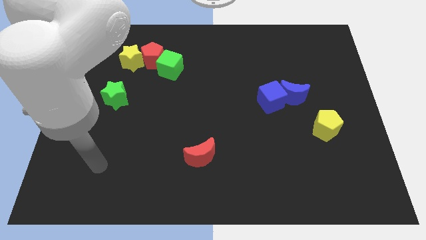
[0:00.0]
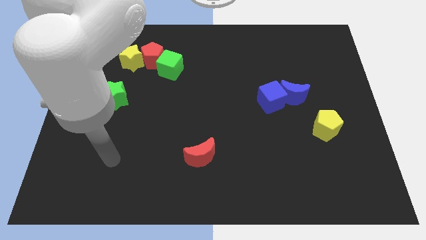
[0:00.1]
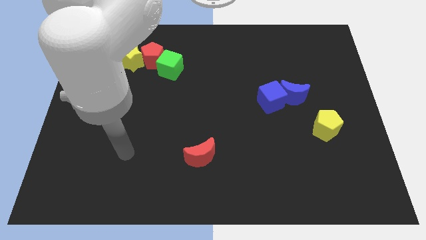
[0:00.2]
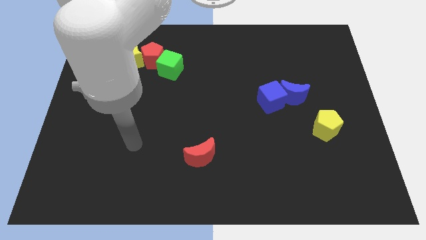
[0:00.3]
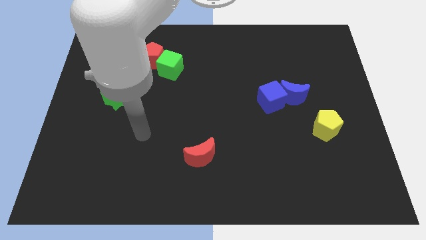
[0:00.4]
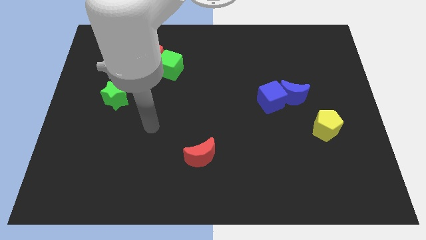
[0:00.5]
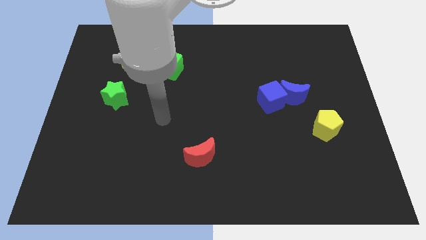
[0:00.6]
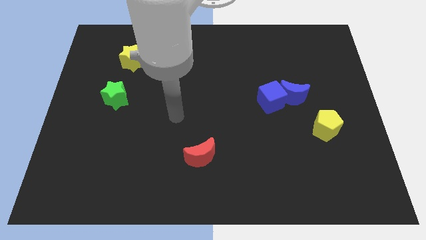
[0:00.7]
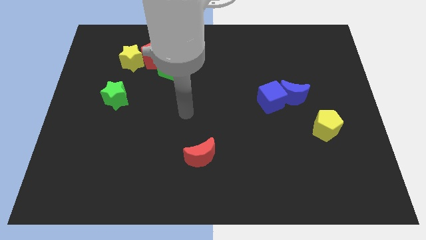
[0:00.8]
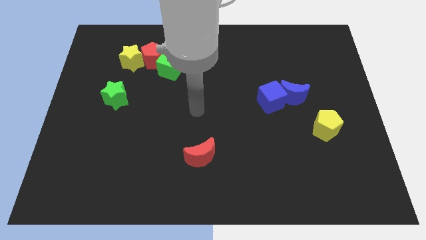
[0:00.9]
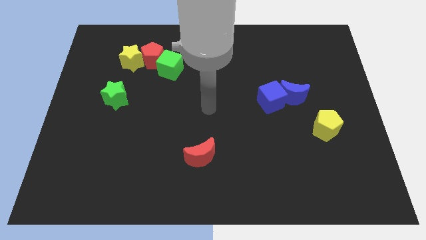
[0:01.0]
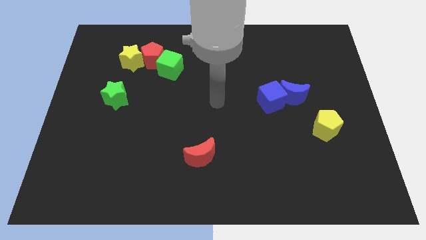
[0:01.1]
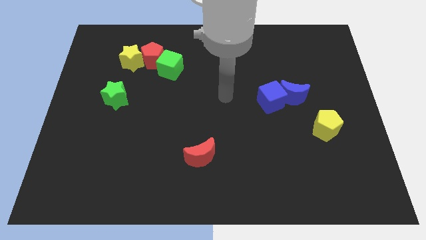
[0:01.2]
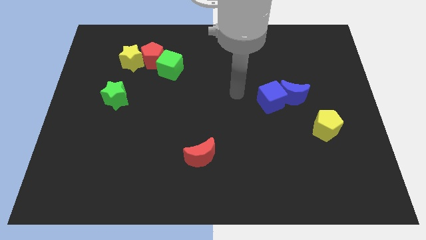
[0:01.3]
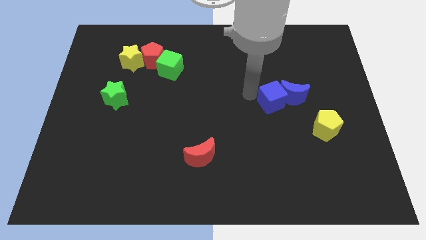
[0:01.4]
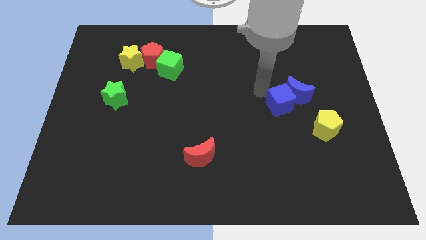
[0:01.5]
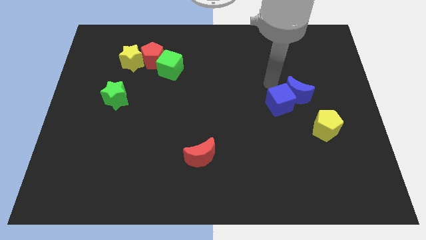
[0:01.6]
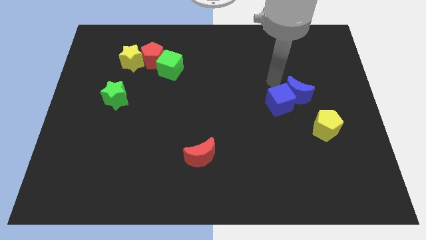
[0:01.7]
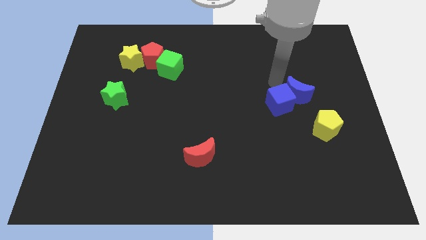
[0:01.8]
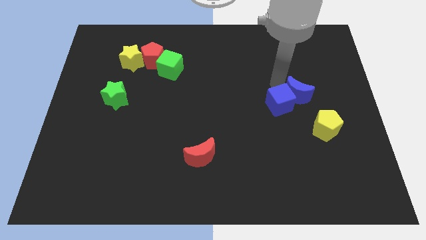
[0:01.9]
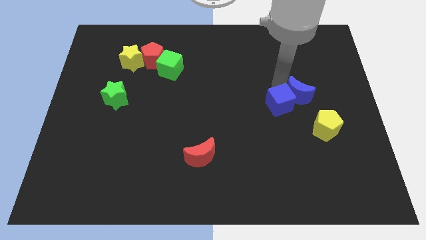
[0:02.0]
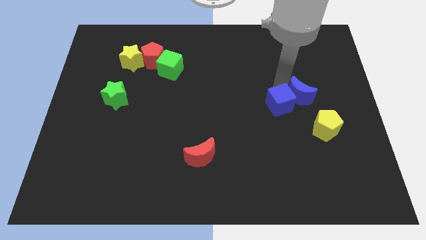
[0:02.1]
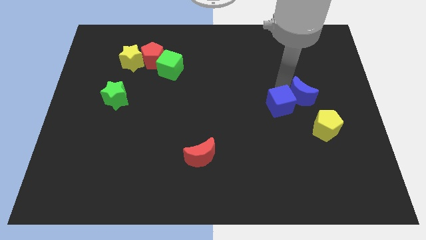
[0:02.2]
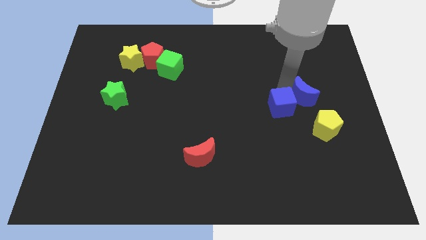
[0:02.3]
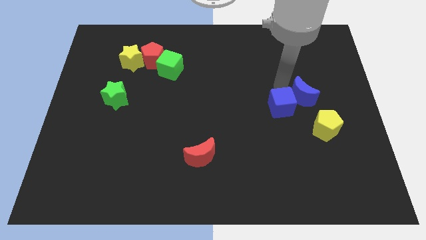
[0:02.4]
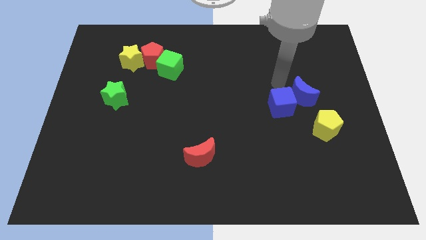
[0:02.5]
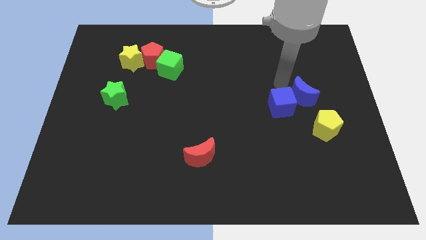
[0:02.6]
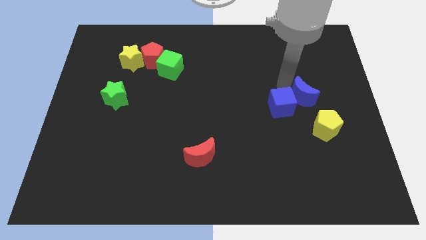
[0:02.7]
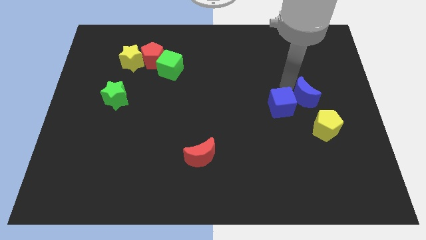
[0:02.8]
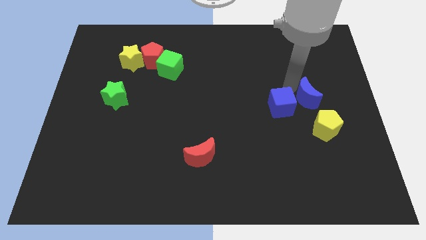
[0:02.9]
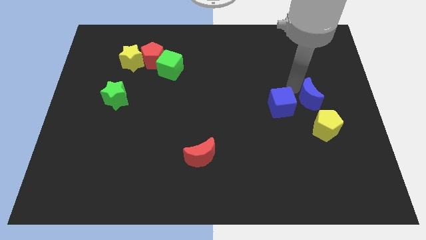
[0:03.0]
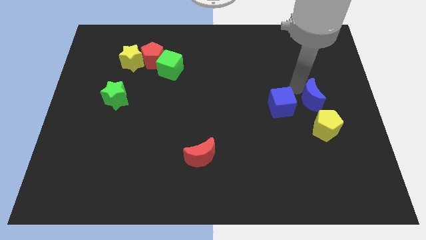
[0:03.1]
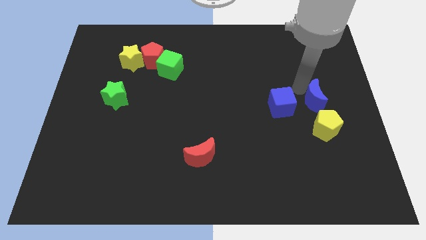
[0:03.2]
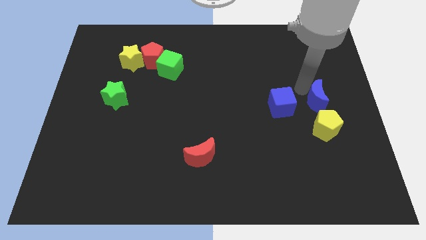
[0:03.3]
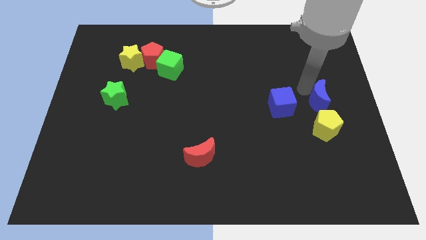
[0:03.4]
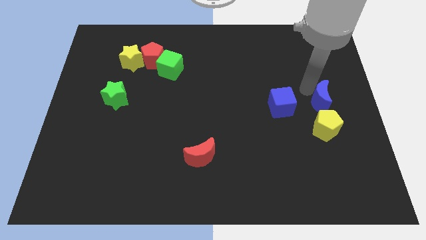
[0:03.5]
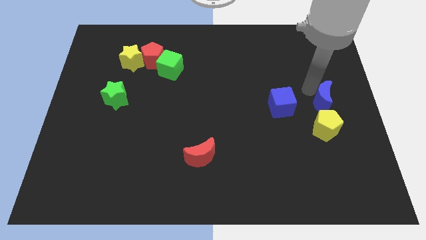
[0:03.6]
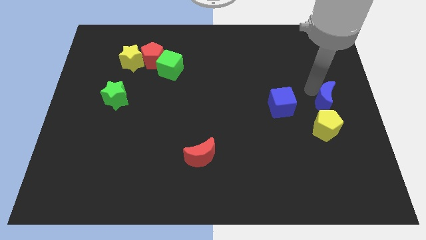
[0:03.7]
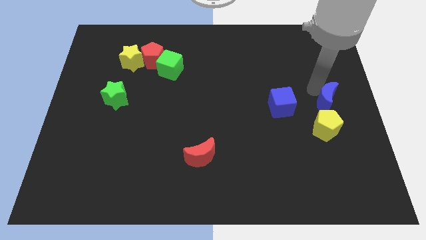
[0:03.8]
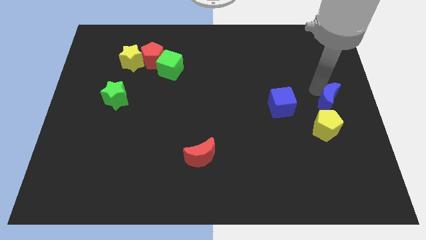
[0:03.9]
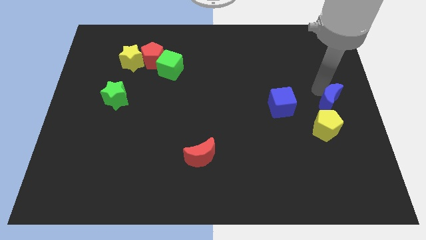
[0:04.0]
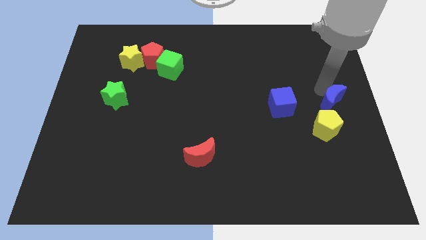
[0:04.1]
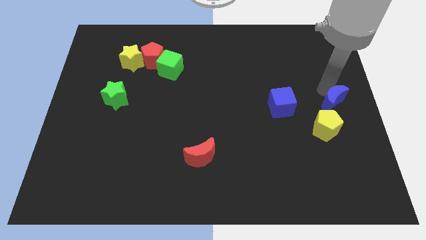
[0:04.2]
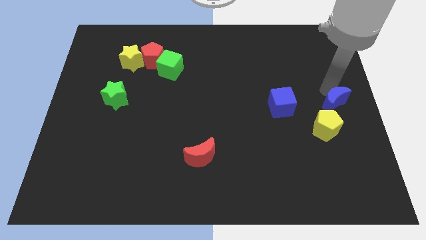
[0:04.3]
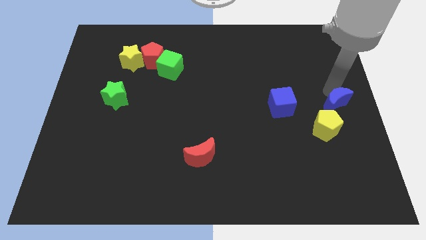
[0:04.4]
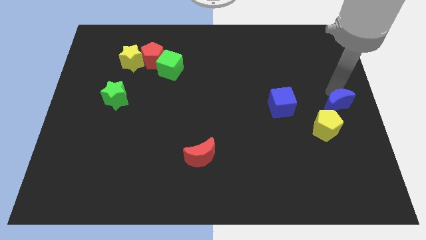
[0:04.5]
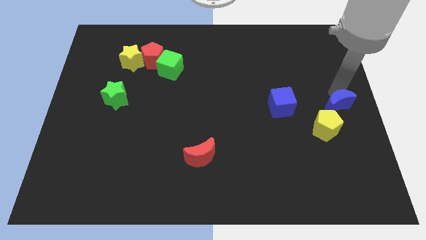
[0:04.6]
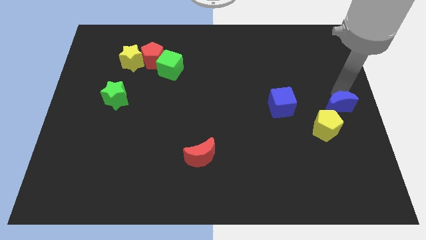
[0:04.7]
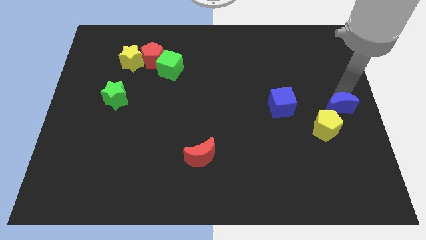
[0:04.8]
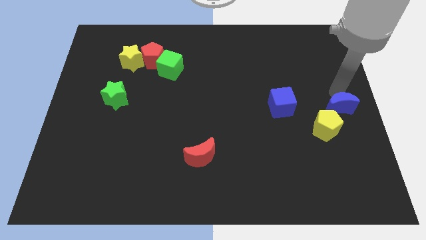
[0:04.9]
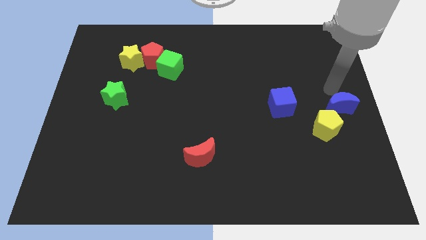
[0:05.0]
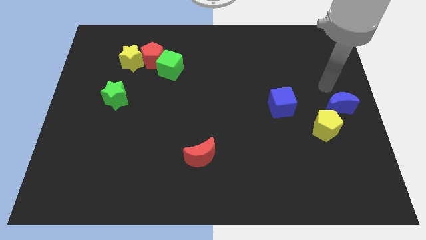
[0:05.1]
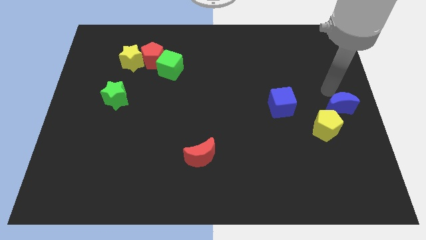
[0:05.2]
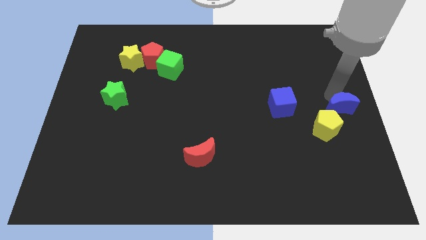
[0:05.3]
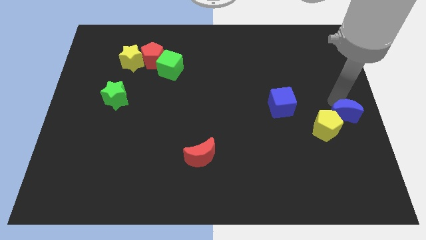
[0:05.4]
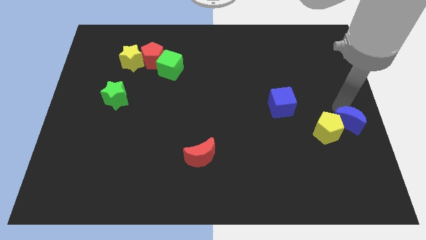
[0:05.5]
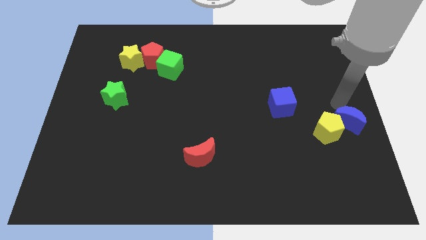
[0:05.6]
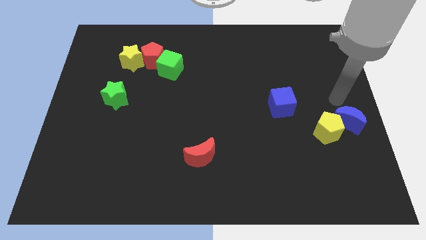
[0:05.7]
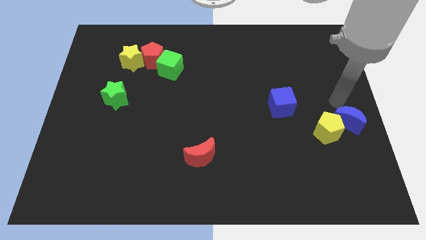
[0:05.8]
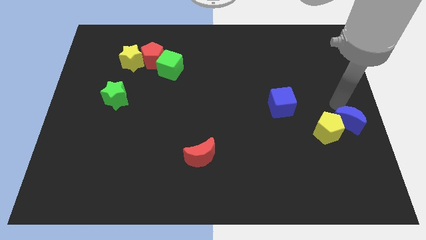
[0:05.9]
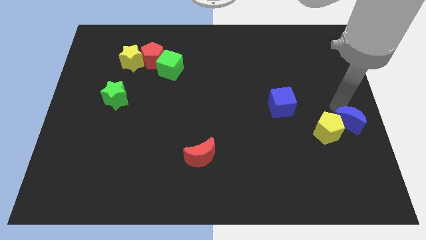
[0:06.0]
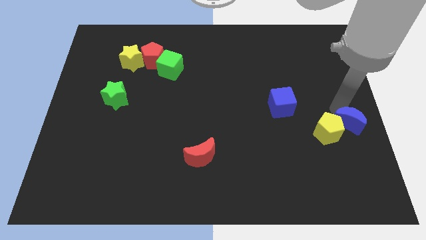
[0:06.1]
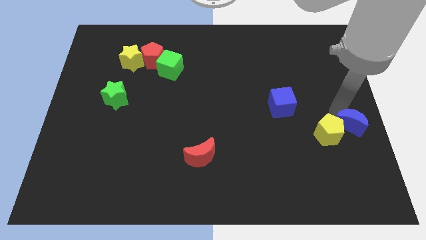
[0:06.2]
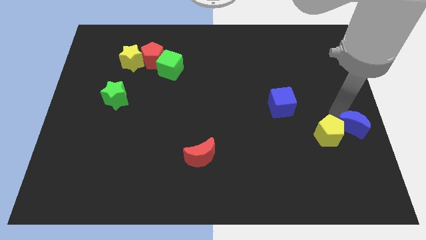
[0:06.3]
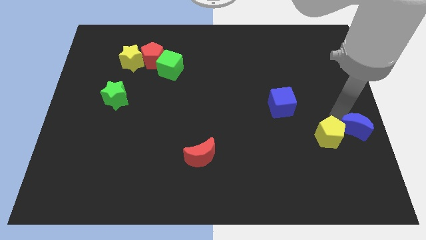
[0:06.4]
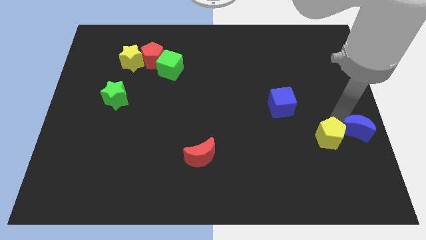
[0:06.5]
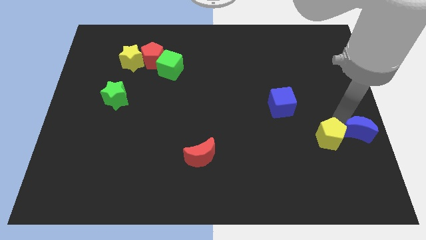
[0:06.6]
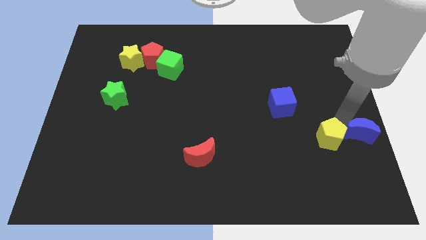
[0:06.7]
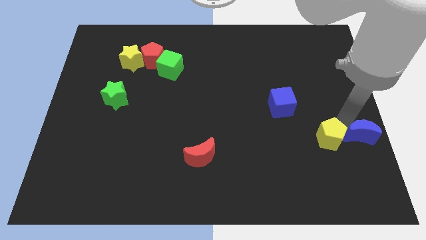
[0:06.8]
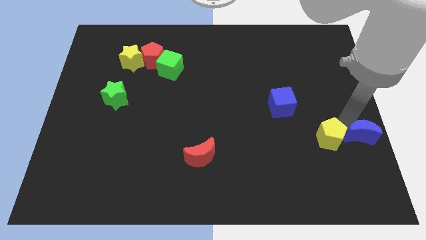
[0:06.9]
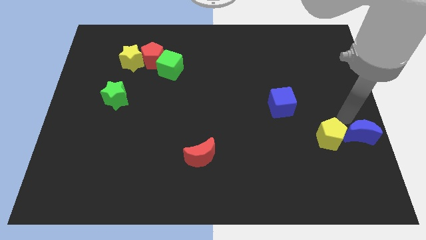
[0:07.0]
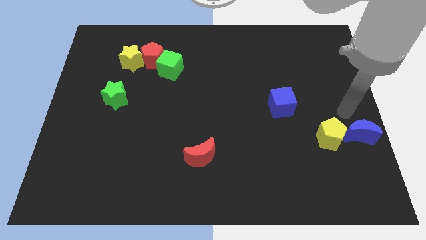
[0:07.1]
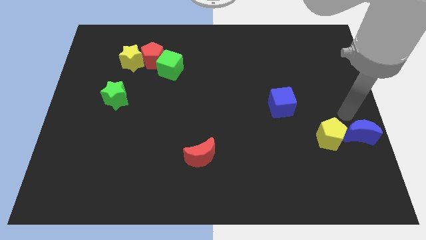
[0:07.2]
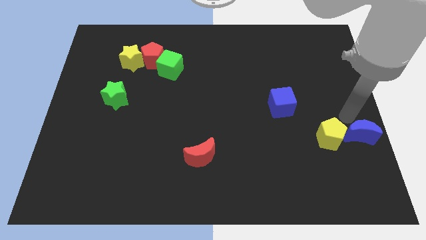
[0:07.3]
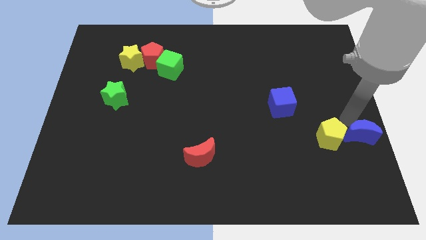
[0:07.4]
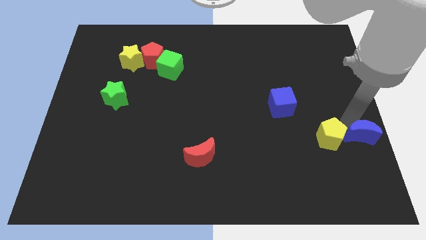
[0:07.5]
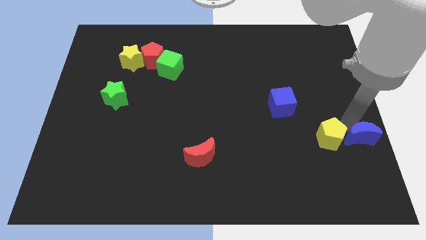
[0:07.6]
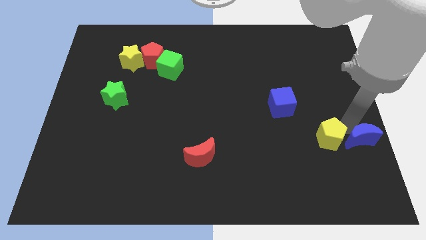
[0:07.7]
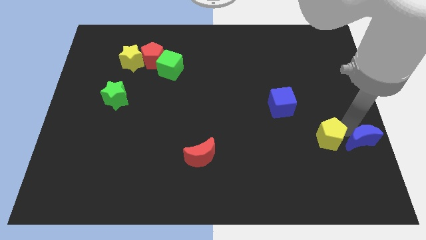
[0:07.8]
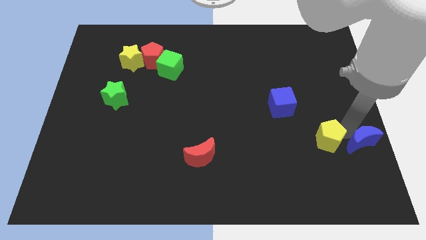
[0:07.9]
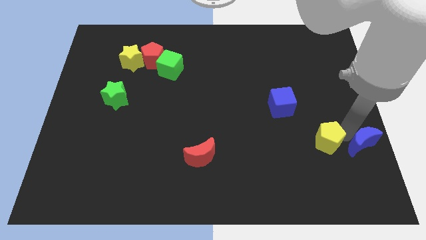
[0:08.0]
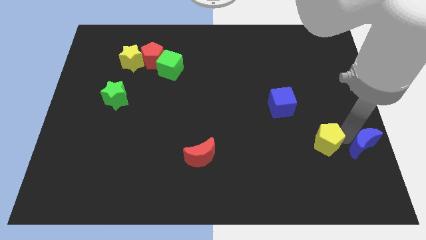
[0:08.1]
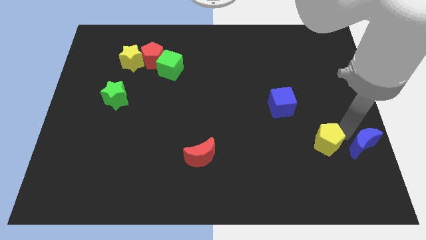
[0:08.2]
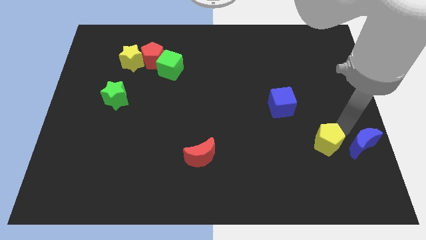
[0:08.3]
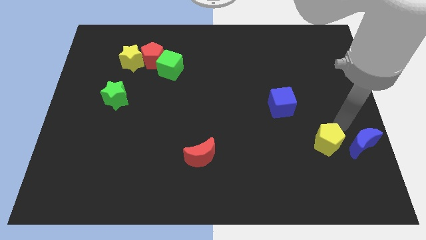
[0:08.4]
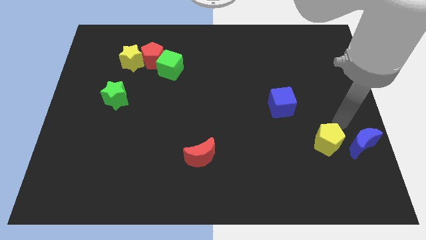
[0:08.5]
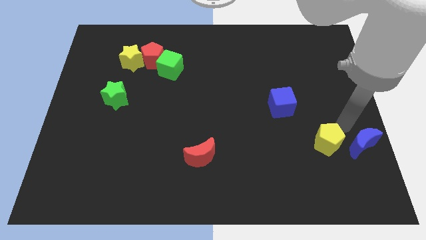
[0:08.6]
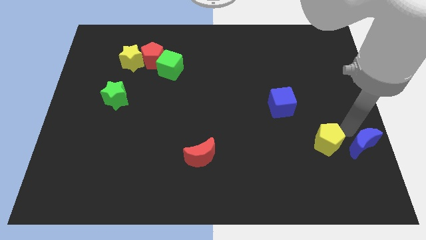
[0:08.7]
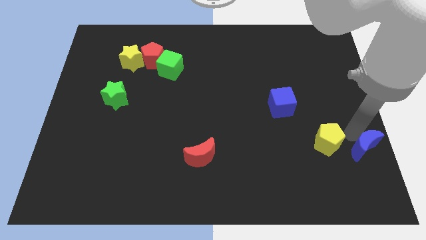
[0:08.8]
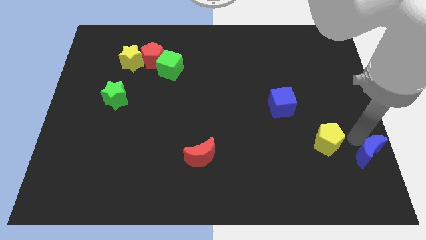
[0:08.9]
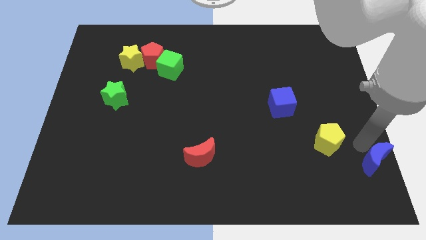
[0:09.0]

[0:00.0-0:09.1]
push the blue moon to the lower right corner
